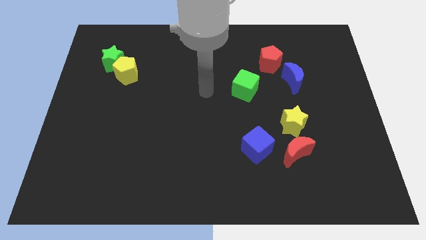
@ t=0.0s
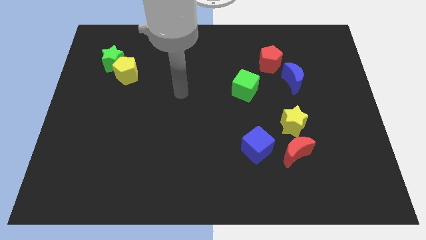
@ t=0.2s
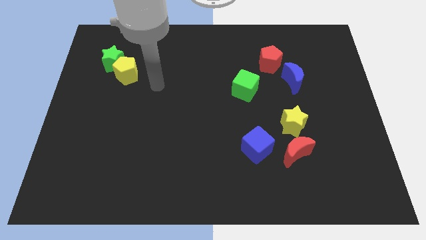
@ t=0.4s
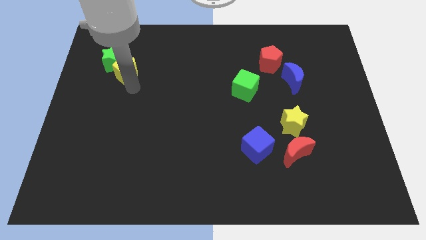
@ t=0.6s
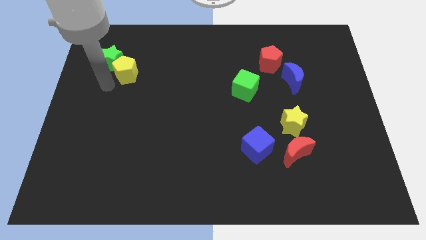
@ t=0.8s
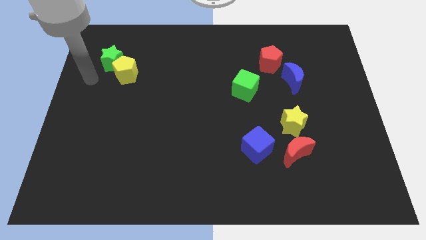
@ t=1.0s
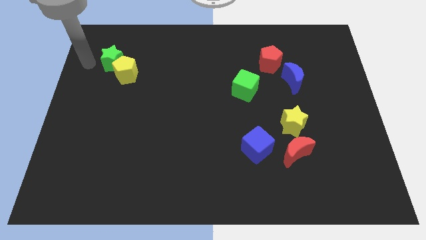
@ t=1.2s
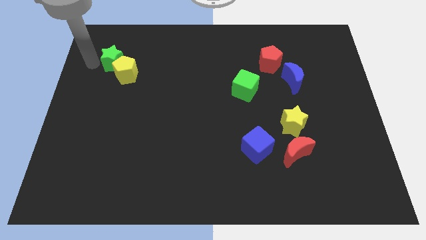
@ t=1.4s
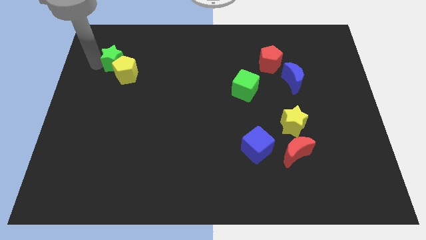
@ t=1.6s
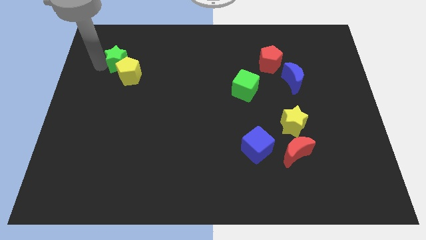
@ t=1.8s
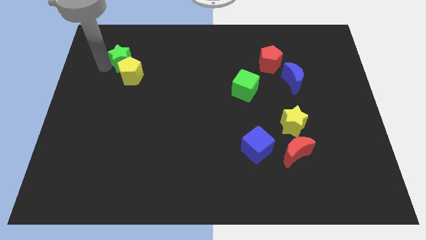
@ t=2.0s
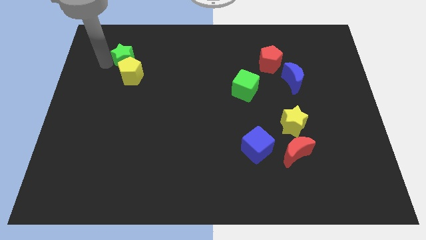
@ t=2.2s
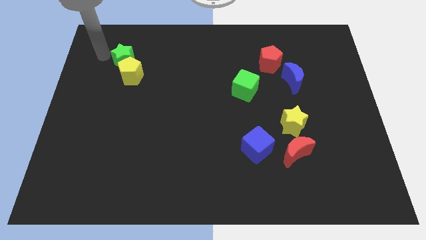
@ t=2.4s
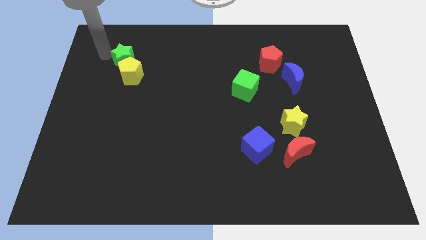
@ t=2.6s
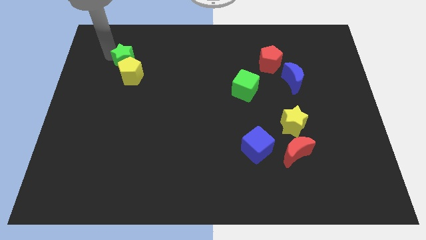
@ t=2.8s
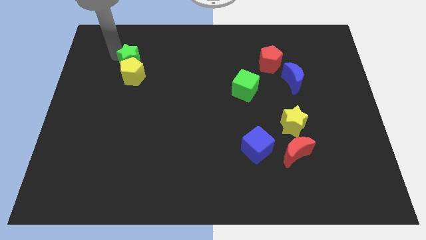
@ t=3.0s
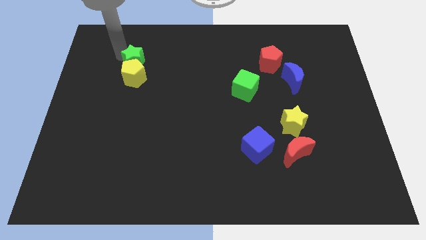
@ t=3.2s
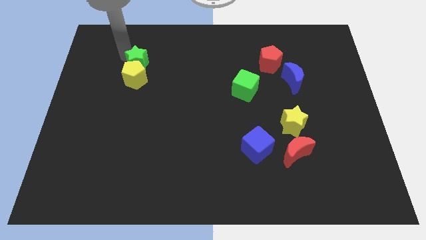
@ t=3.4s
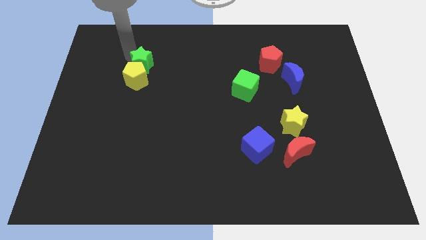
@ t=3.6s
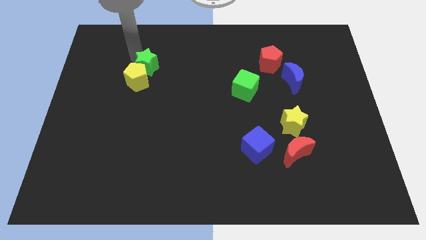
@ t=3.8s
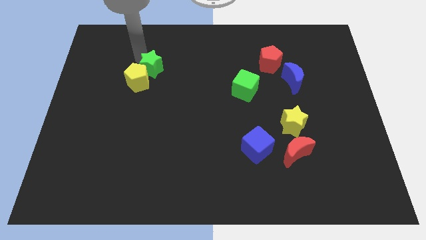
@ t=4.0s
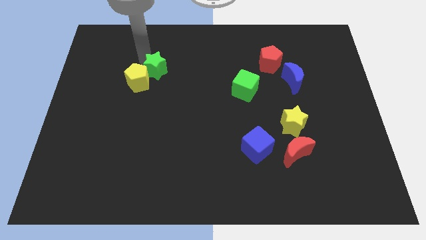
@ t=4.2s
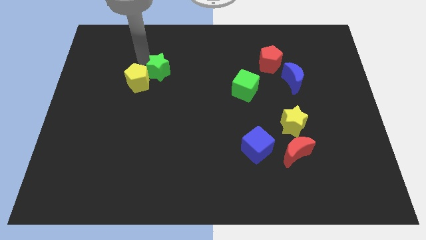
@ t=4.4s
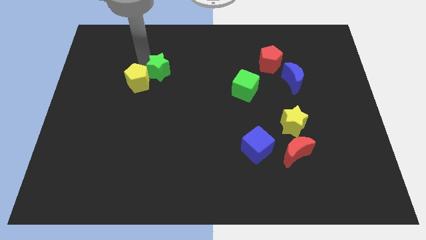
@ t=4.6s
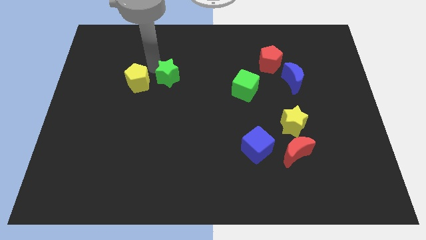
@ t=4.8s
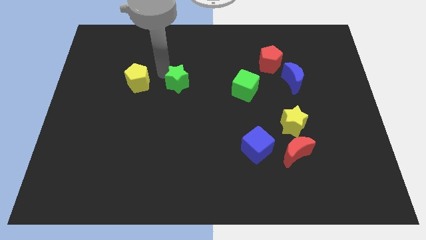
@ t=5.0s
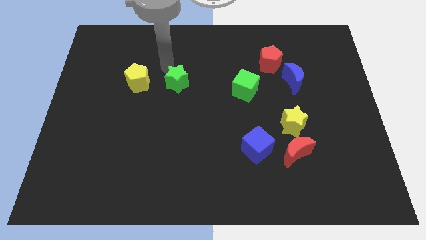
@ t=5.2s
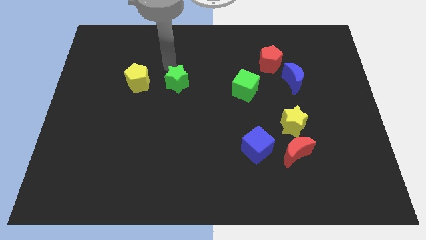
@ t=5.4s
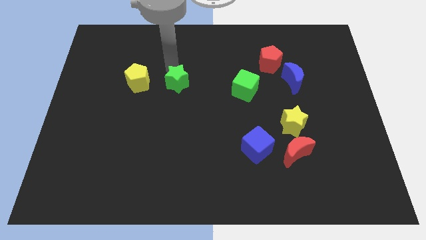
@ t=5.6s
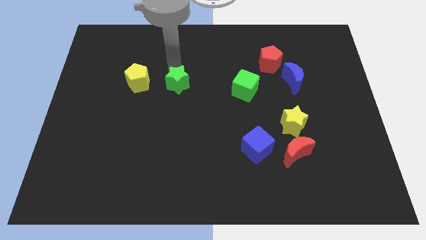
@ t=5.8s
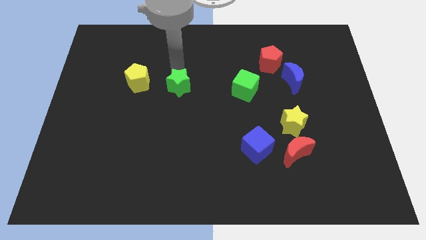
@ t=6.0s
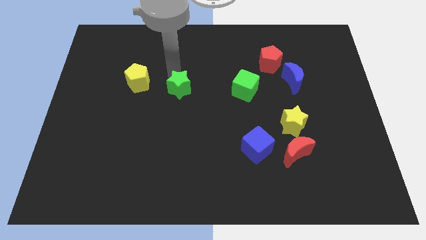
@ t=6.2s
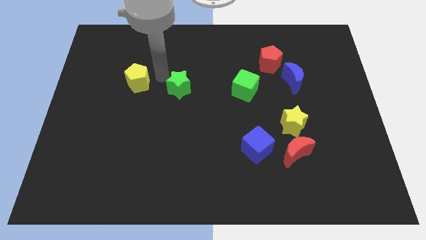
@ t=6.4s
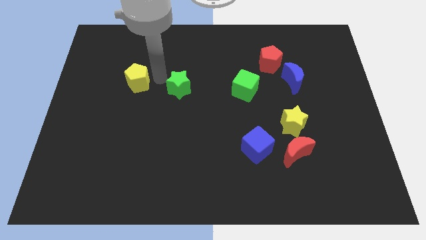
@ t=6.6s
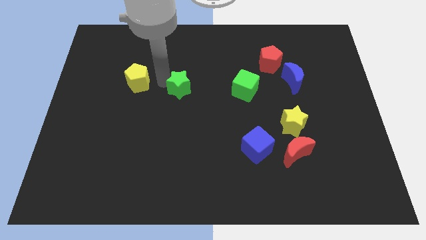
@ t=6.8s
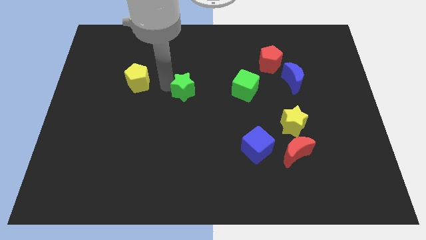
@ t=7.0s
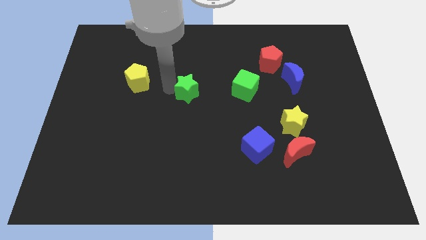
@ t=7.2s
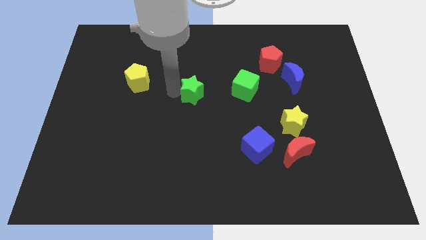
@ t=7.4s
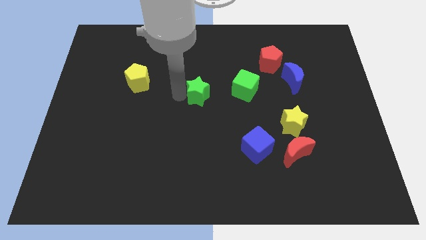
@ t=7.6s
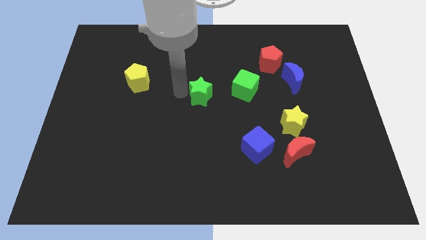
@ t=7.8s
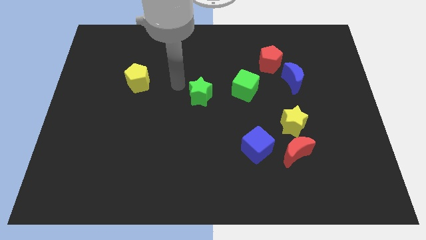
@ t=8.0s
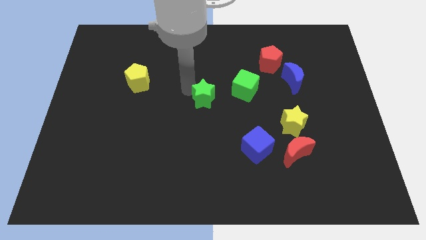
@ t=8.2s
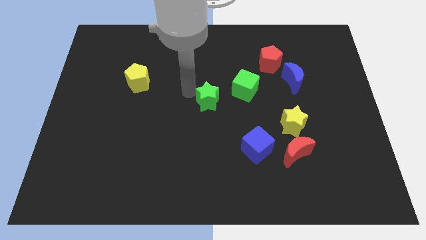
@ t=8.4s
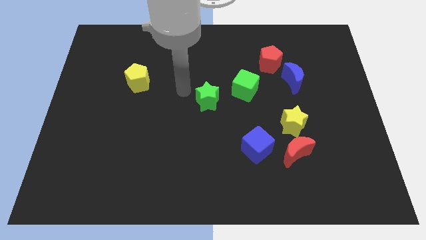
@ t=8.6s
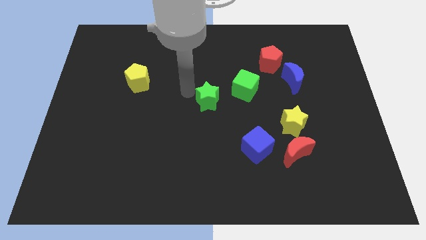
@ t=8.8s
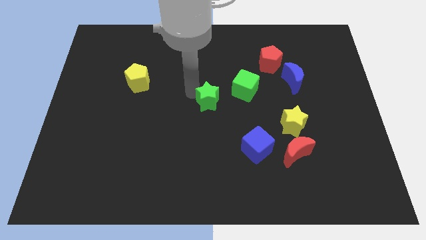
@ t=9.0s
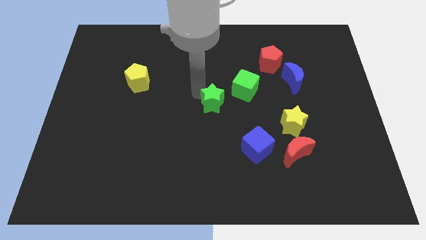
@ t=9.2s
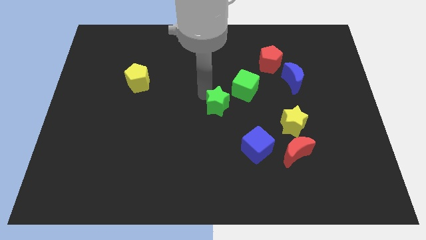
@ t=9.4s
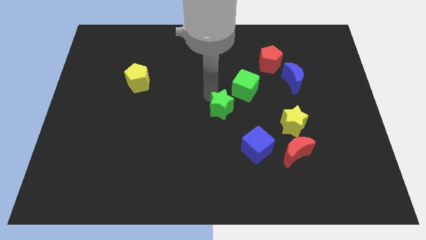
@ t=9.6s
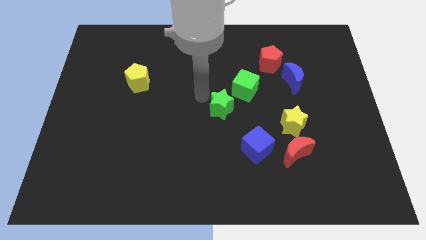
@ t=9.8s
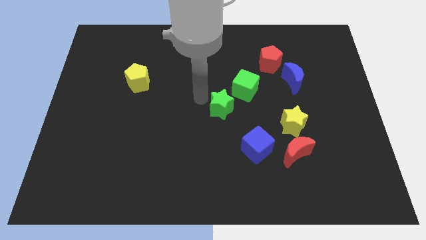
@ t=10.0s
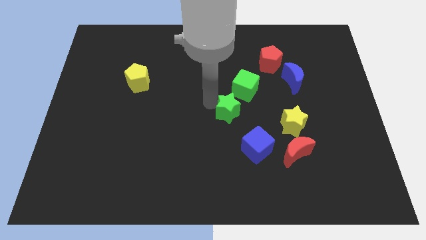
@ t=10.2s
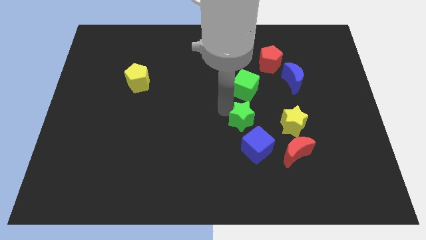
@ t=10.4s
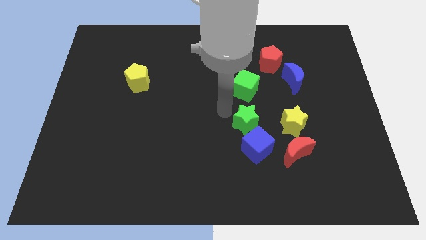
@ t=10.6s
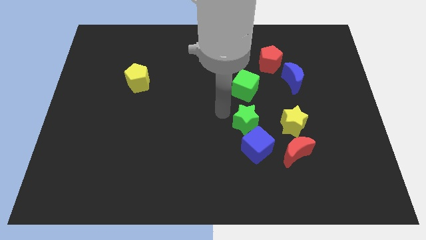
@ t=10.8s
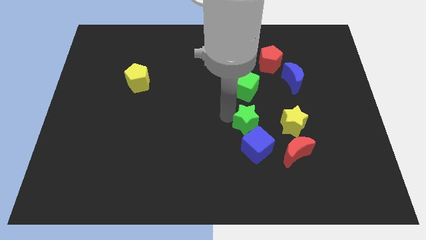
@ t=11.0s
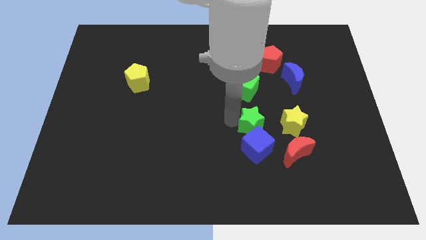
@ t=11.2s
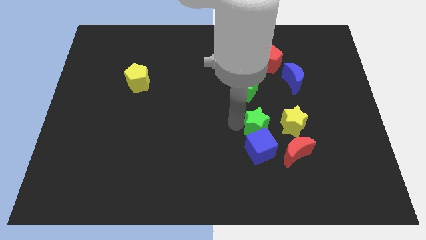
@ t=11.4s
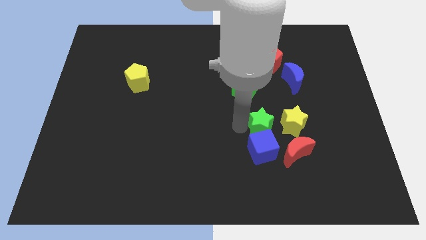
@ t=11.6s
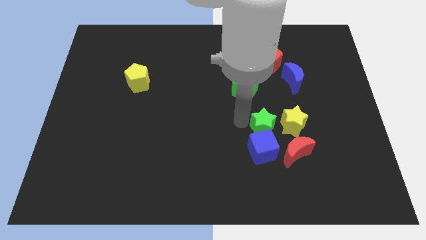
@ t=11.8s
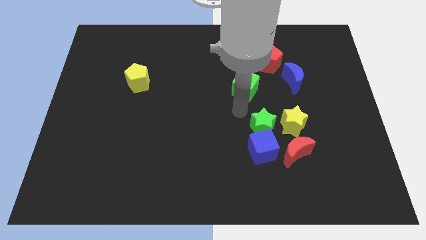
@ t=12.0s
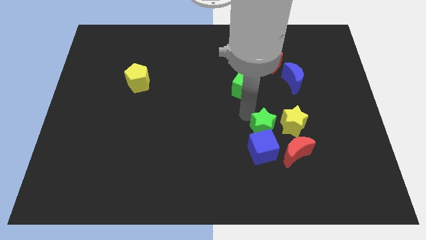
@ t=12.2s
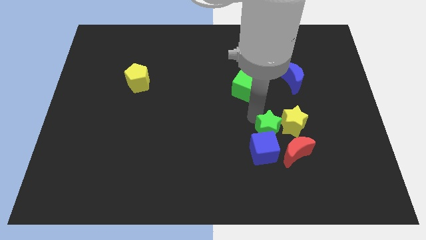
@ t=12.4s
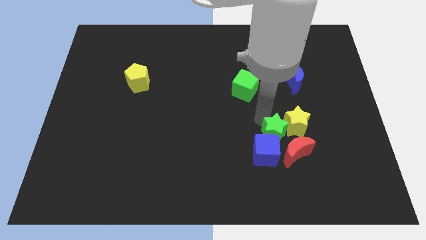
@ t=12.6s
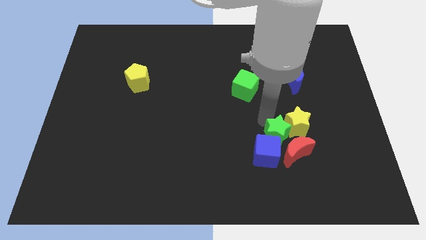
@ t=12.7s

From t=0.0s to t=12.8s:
put the green star close to the red moon
